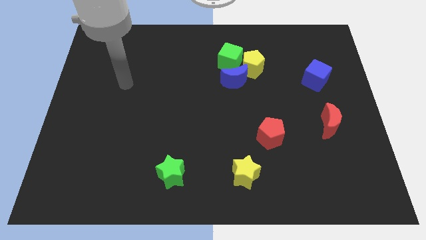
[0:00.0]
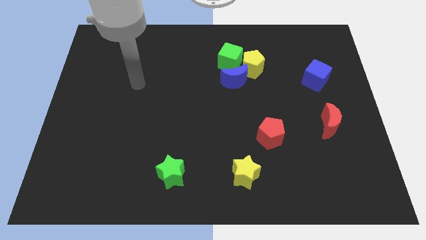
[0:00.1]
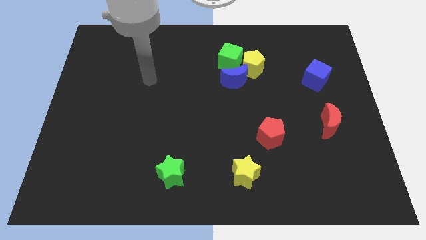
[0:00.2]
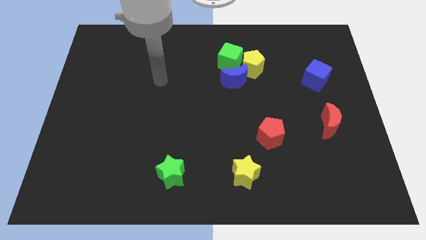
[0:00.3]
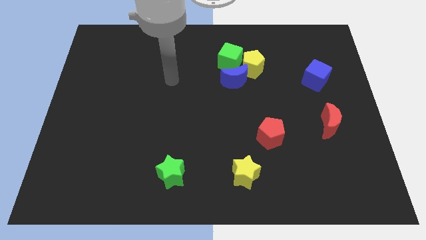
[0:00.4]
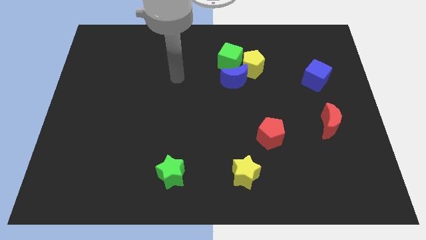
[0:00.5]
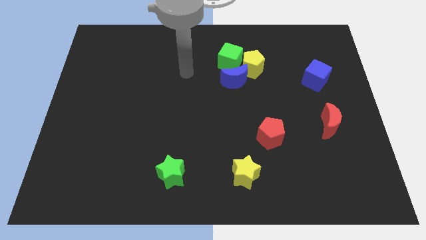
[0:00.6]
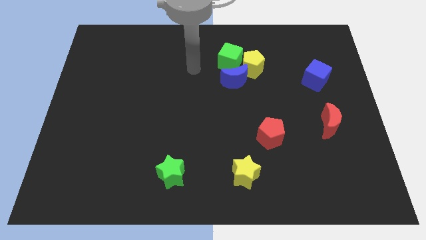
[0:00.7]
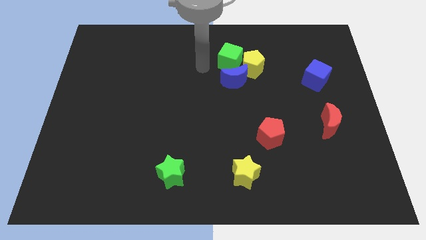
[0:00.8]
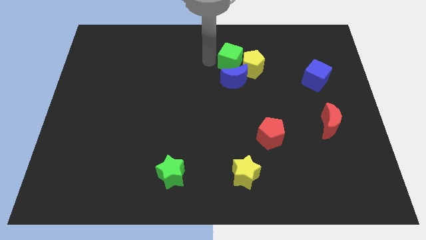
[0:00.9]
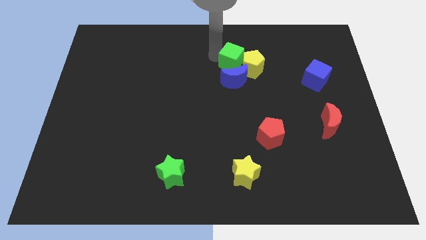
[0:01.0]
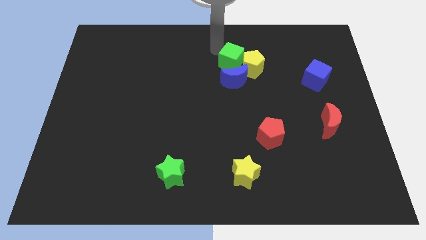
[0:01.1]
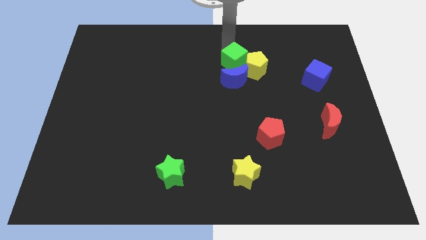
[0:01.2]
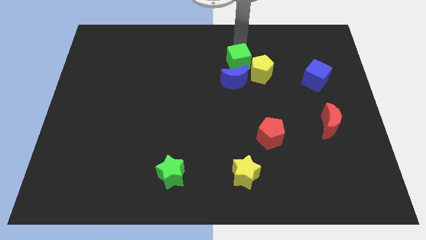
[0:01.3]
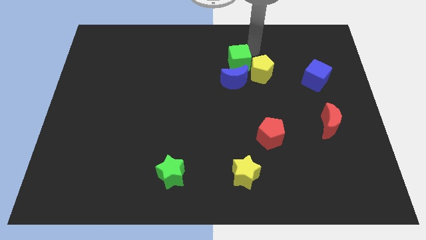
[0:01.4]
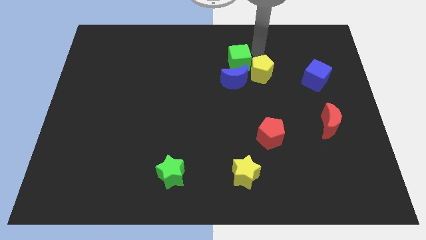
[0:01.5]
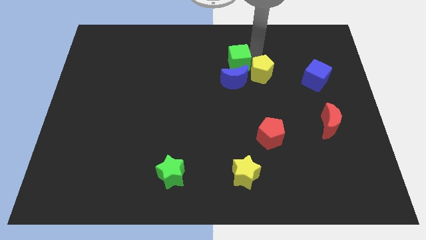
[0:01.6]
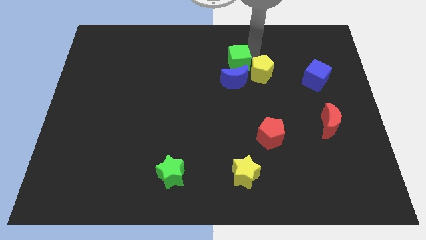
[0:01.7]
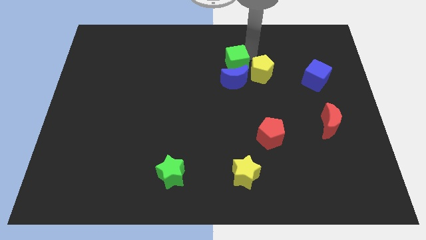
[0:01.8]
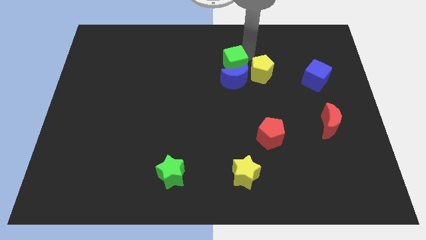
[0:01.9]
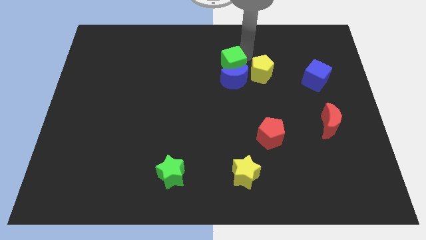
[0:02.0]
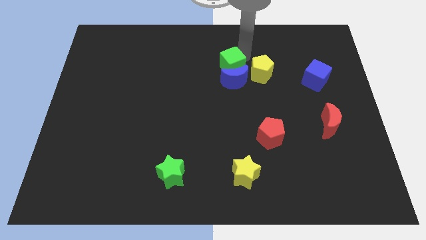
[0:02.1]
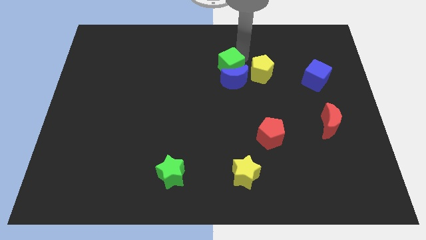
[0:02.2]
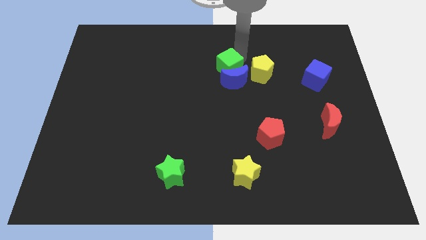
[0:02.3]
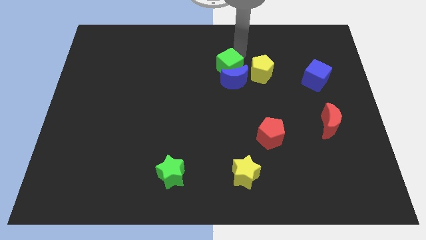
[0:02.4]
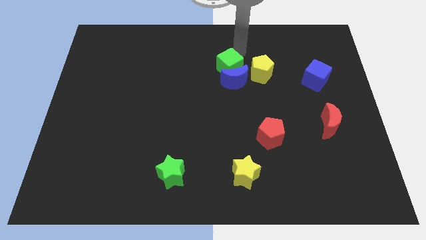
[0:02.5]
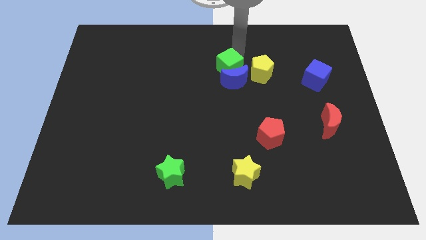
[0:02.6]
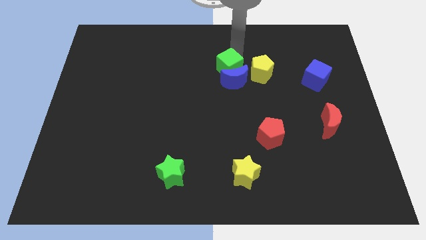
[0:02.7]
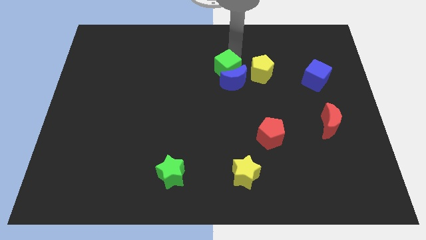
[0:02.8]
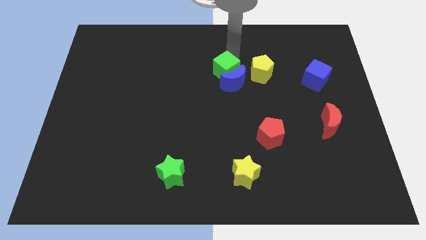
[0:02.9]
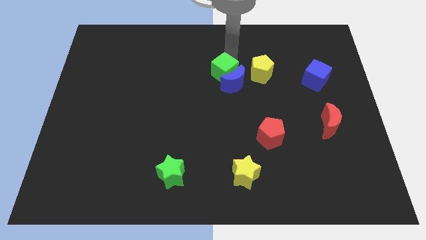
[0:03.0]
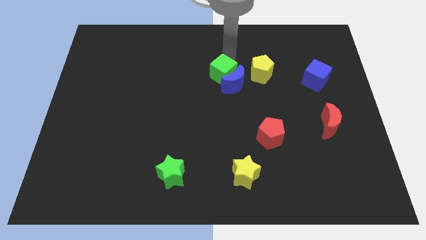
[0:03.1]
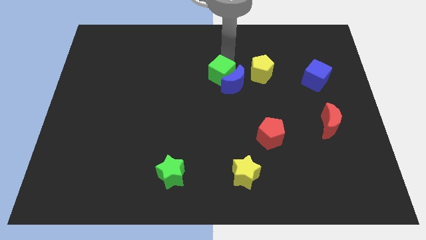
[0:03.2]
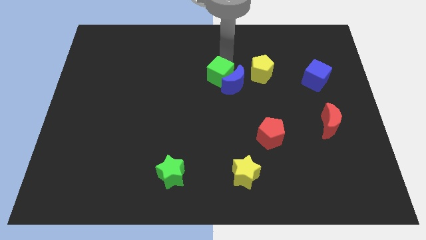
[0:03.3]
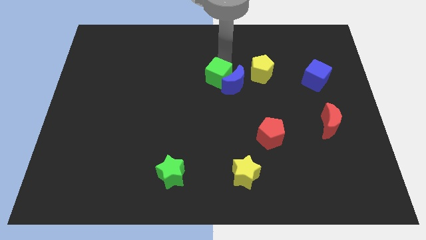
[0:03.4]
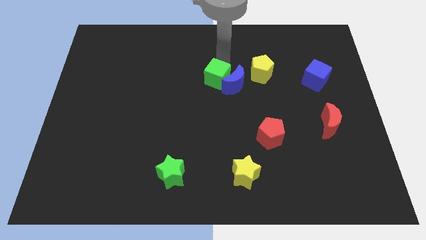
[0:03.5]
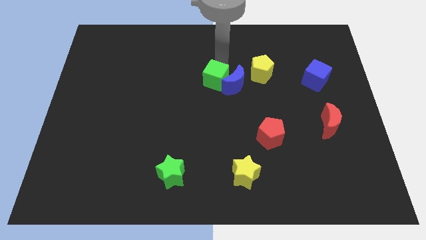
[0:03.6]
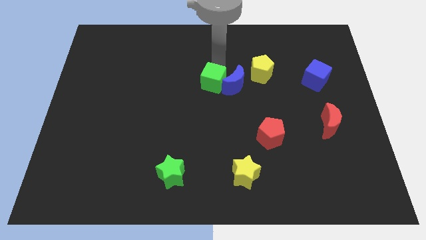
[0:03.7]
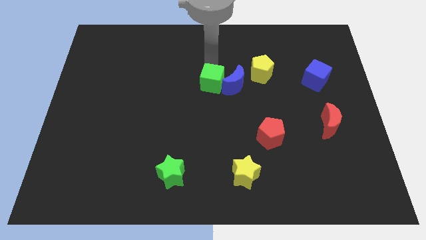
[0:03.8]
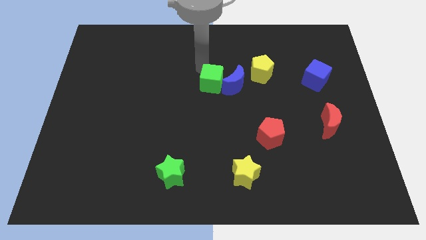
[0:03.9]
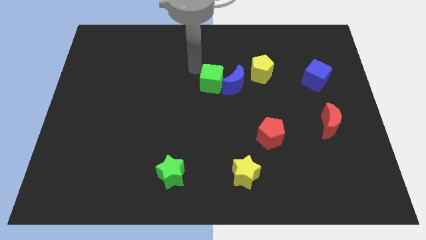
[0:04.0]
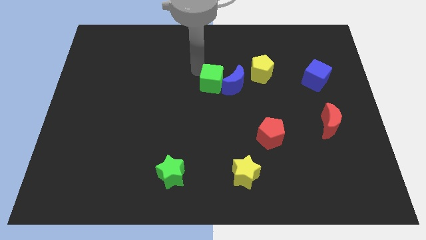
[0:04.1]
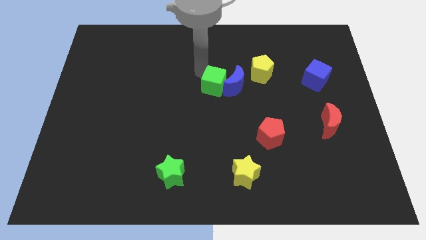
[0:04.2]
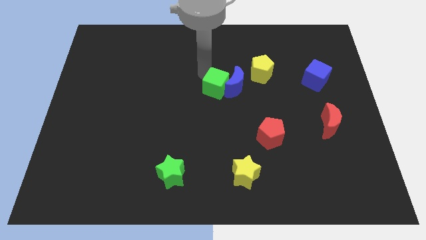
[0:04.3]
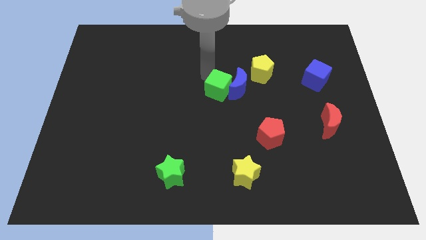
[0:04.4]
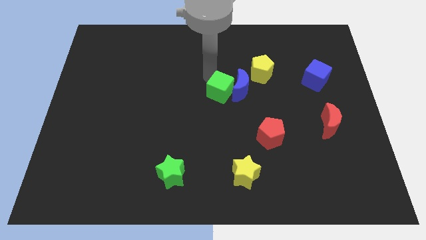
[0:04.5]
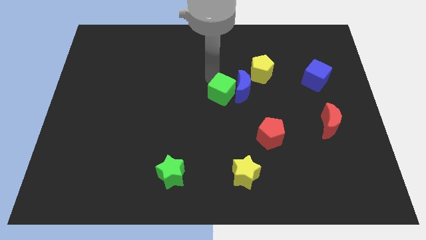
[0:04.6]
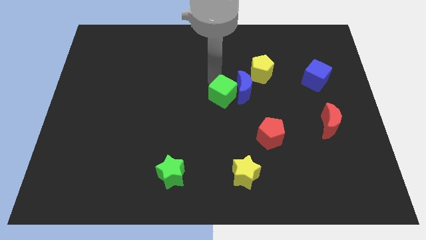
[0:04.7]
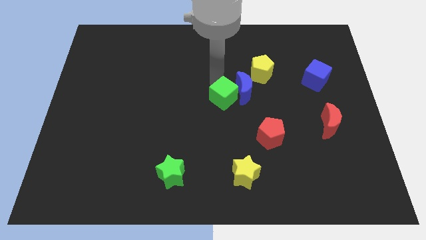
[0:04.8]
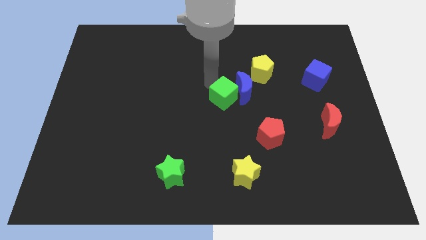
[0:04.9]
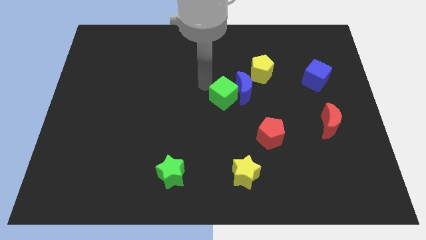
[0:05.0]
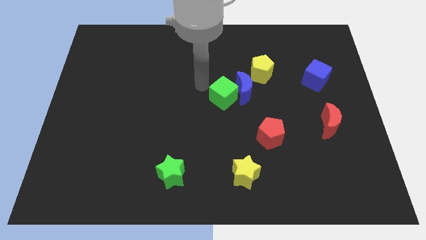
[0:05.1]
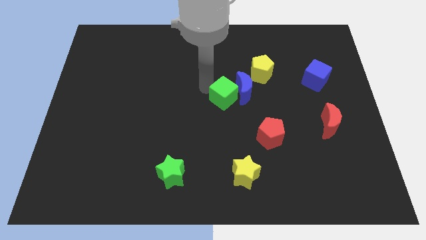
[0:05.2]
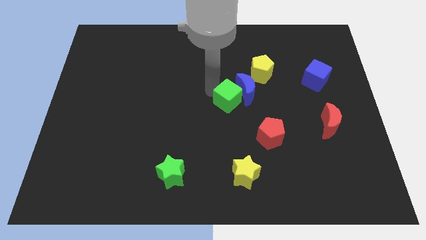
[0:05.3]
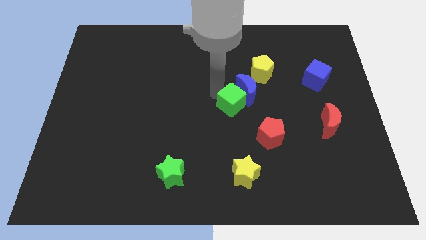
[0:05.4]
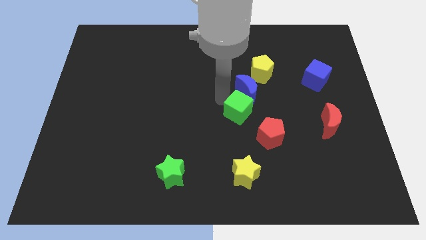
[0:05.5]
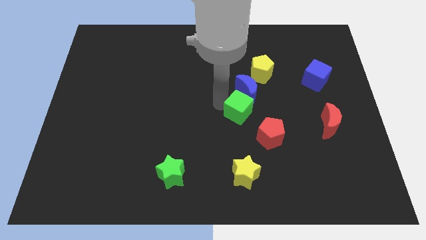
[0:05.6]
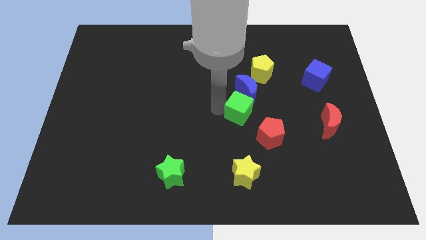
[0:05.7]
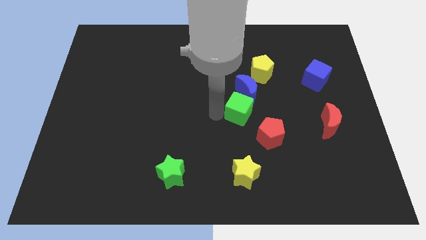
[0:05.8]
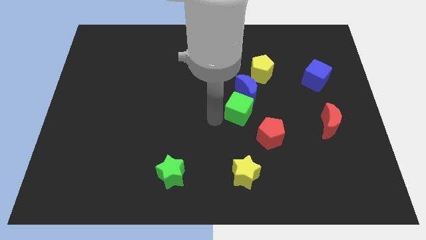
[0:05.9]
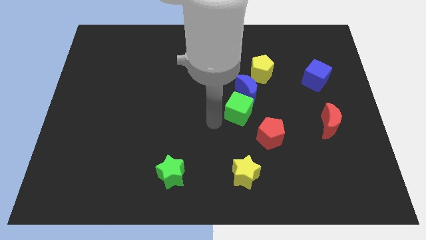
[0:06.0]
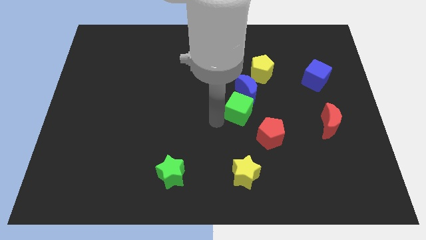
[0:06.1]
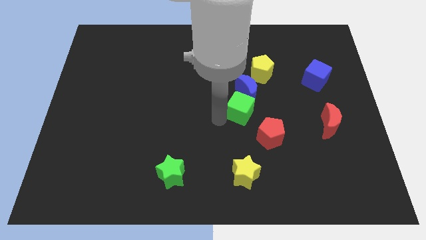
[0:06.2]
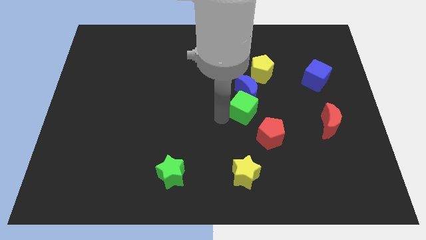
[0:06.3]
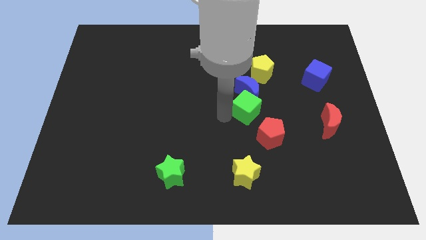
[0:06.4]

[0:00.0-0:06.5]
move the green cube above the red pentagon

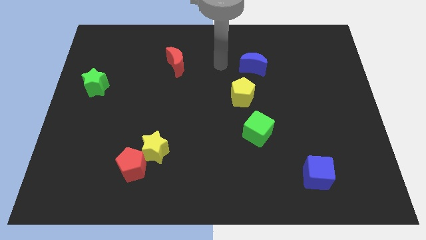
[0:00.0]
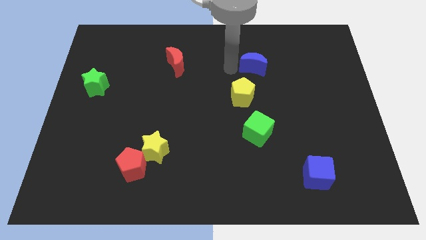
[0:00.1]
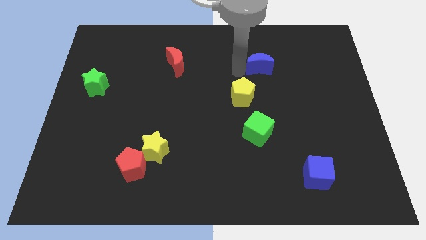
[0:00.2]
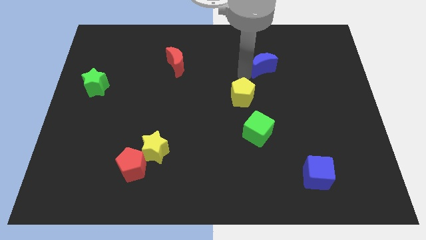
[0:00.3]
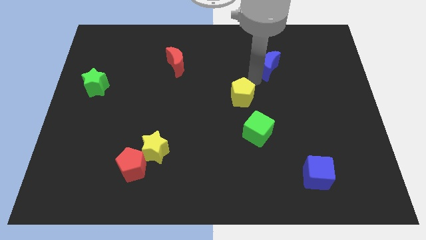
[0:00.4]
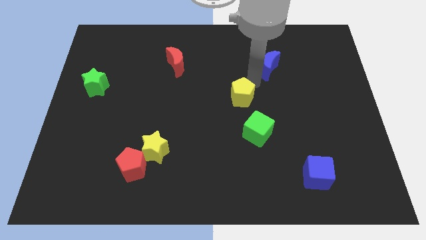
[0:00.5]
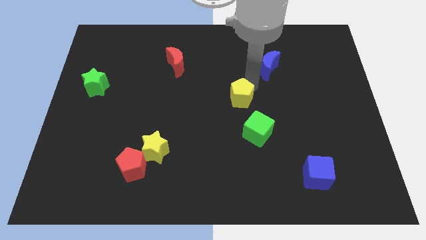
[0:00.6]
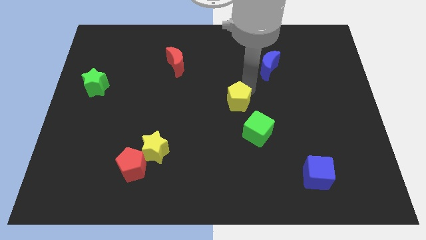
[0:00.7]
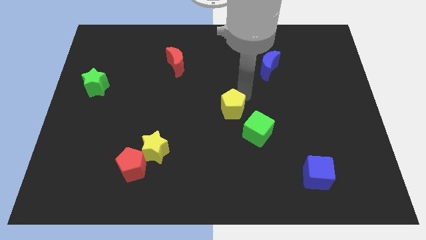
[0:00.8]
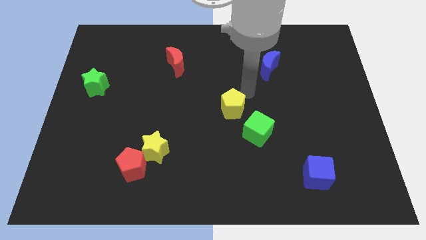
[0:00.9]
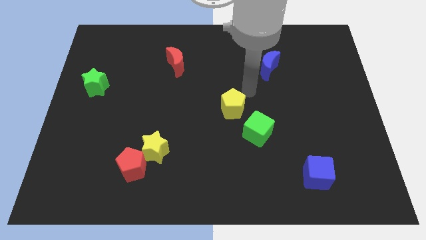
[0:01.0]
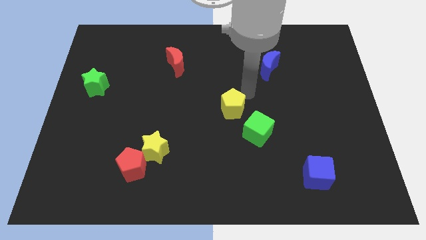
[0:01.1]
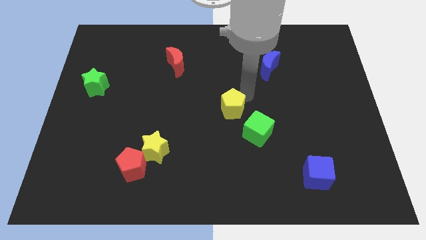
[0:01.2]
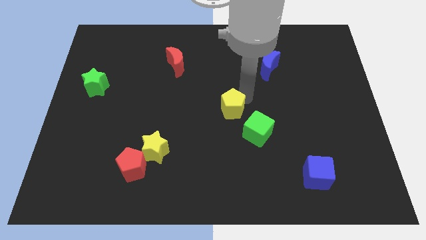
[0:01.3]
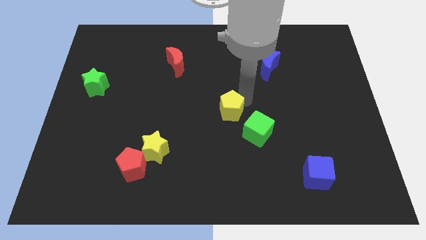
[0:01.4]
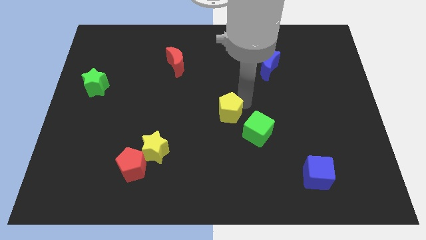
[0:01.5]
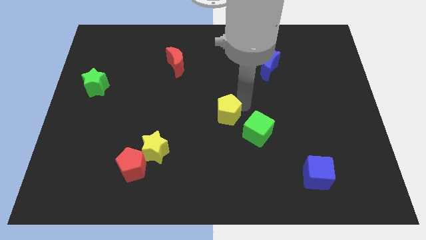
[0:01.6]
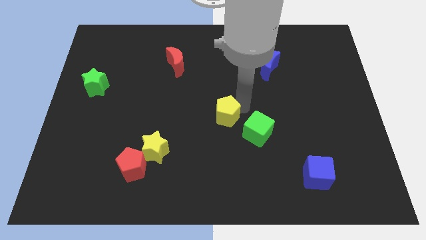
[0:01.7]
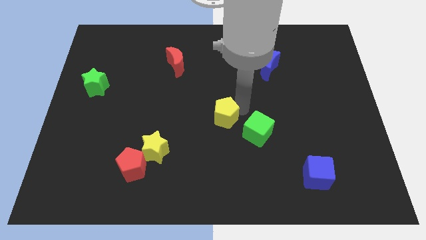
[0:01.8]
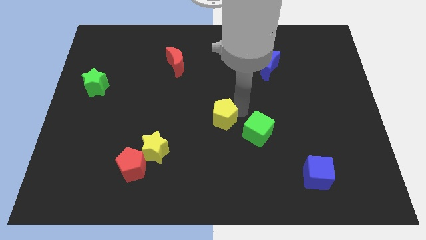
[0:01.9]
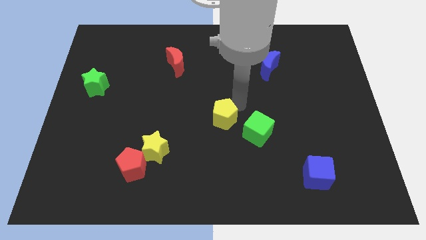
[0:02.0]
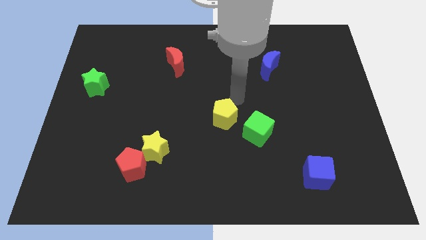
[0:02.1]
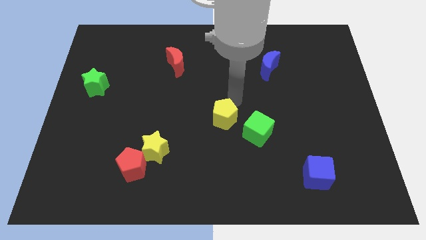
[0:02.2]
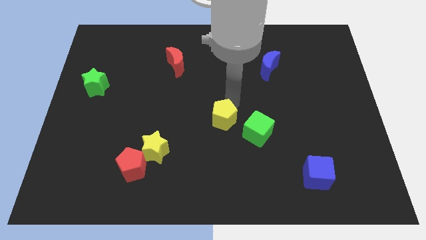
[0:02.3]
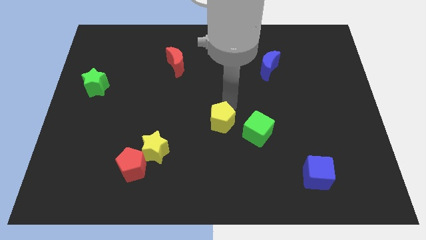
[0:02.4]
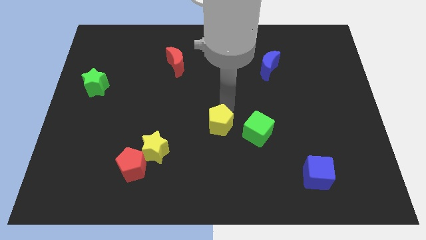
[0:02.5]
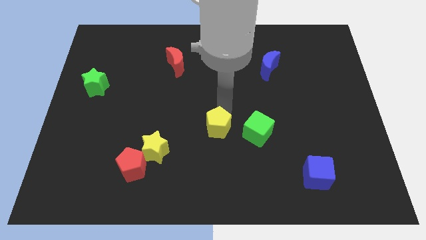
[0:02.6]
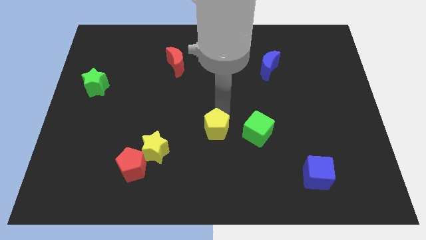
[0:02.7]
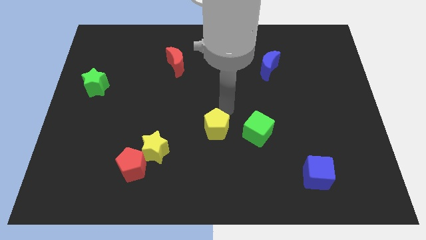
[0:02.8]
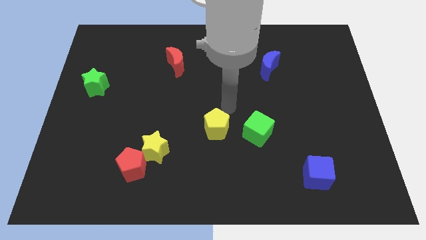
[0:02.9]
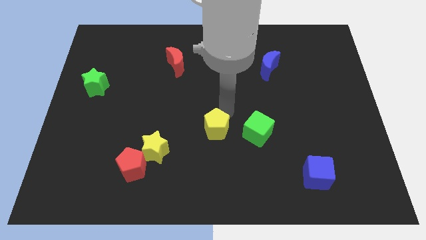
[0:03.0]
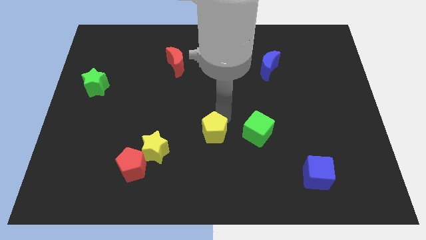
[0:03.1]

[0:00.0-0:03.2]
move the yellow pentagon to the right side of the yellow star
